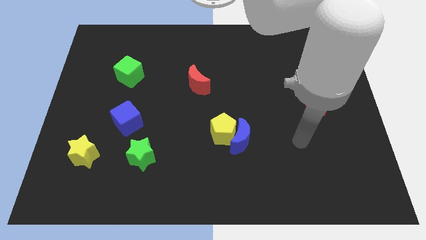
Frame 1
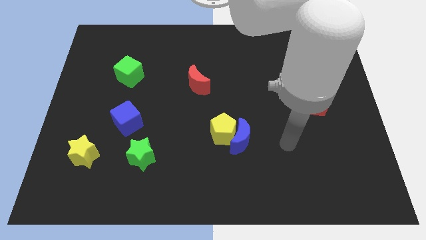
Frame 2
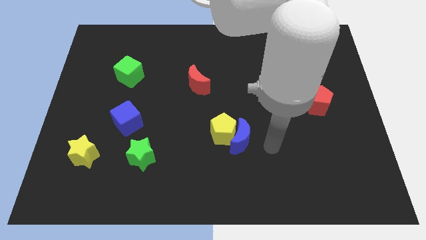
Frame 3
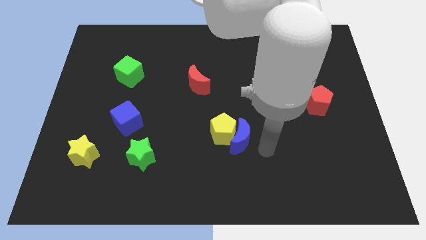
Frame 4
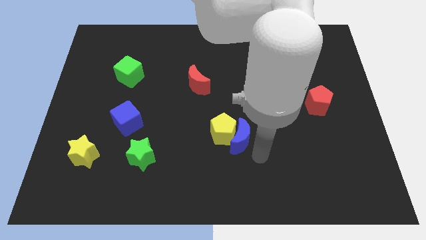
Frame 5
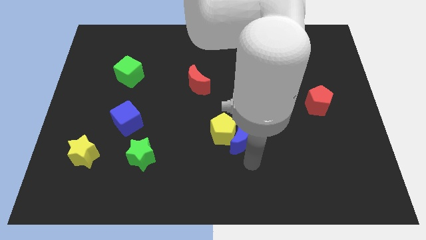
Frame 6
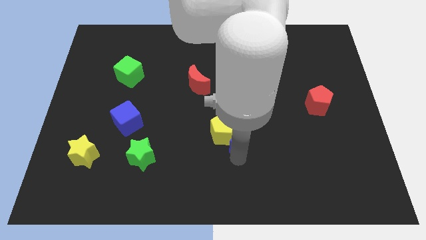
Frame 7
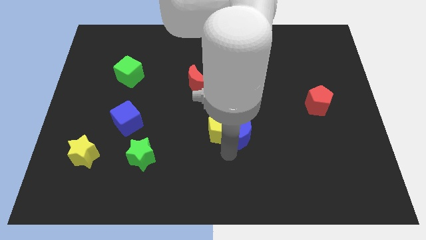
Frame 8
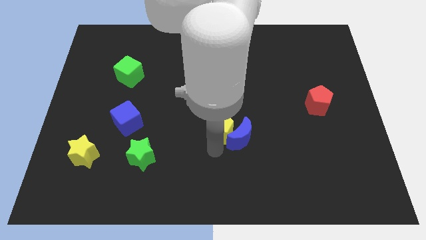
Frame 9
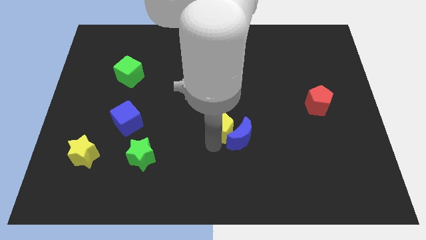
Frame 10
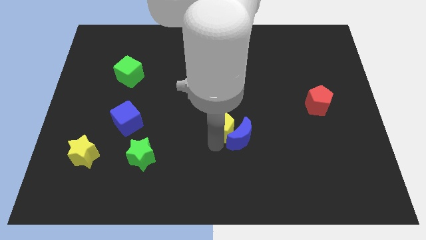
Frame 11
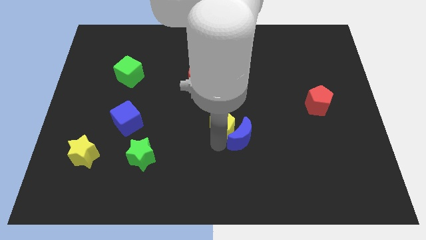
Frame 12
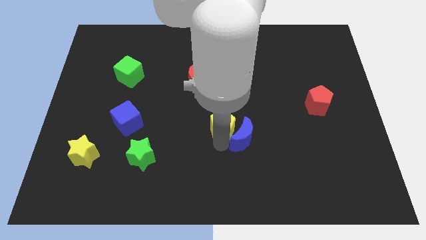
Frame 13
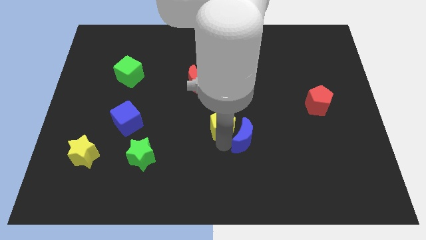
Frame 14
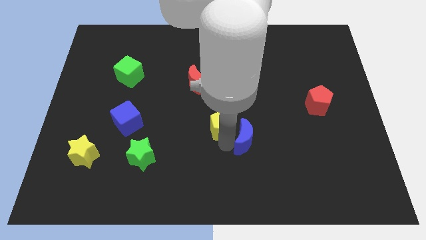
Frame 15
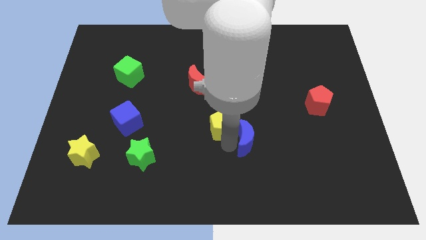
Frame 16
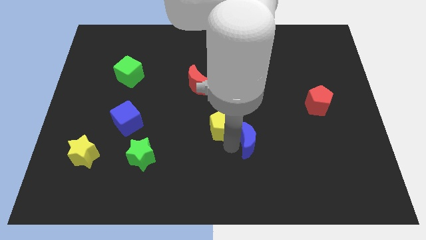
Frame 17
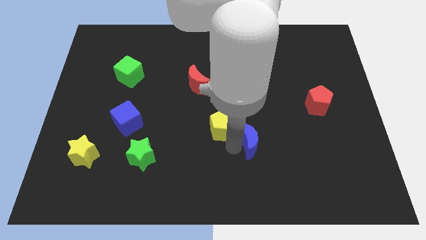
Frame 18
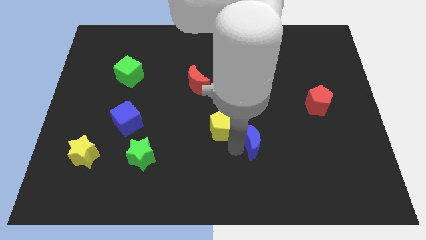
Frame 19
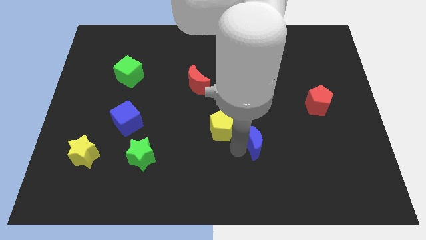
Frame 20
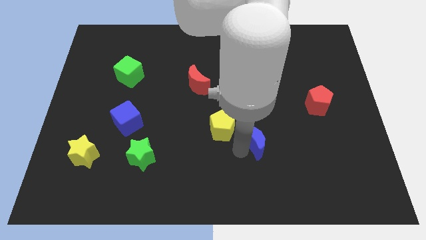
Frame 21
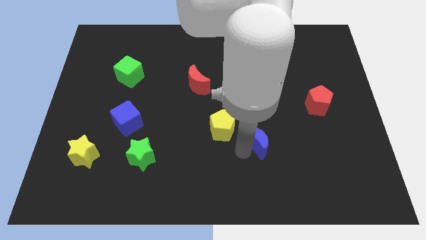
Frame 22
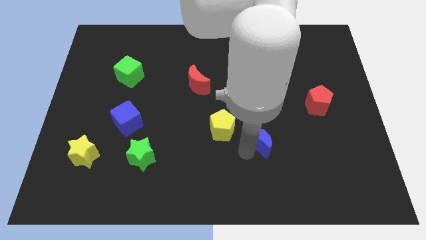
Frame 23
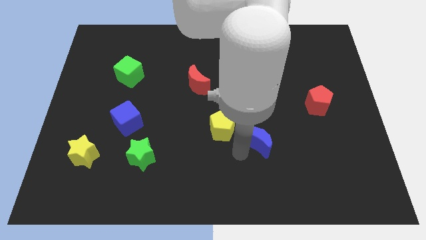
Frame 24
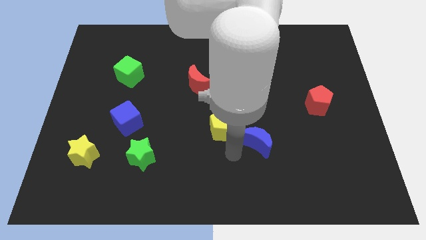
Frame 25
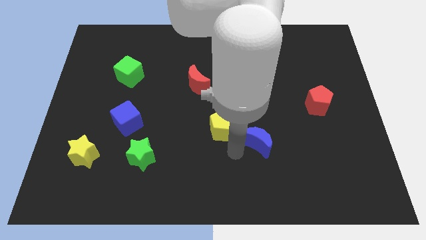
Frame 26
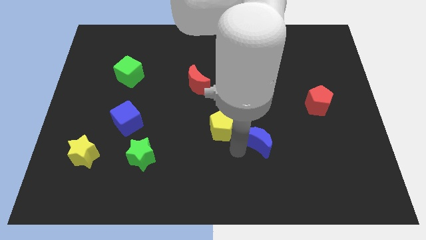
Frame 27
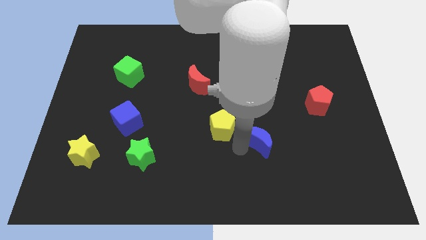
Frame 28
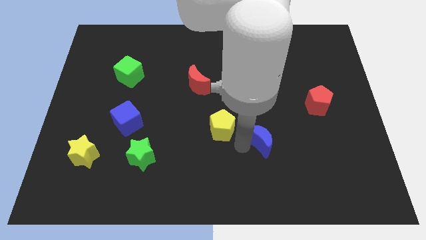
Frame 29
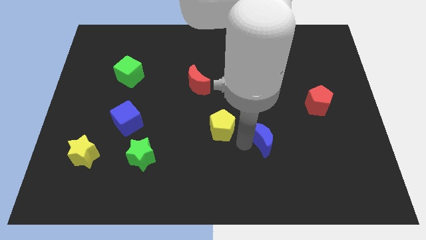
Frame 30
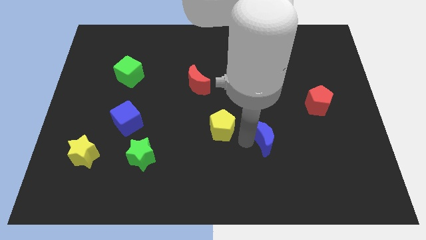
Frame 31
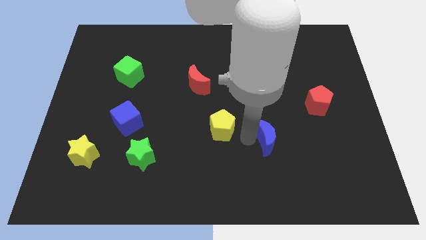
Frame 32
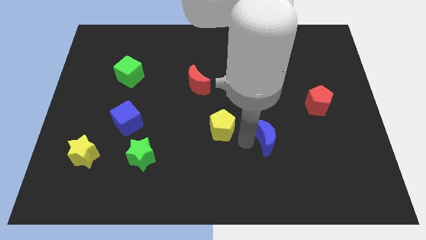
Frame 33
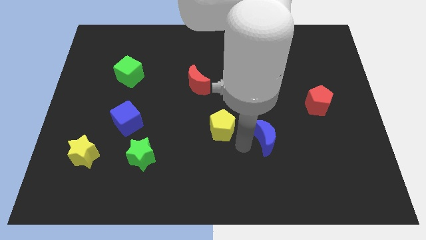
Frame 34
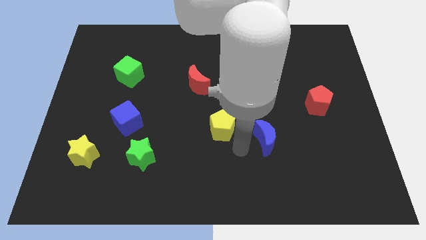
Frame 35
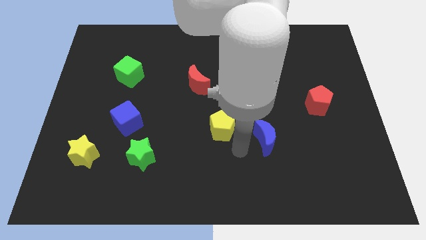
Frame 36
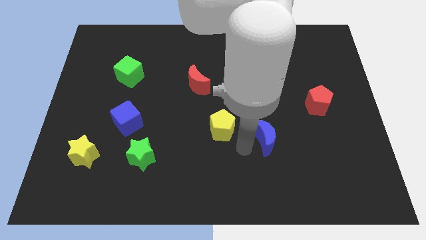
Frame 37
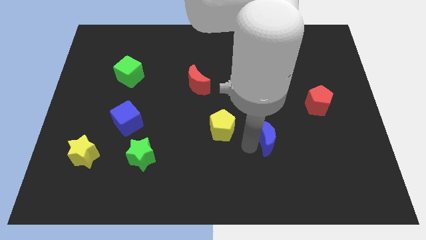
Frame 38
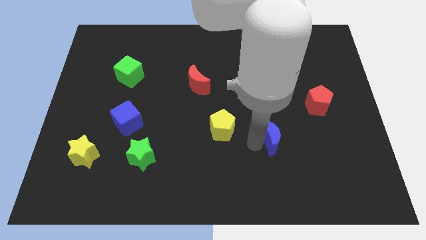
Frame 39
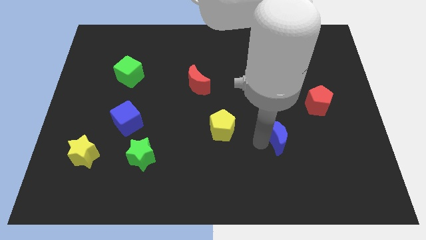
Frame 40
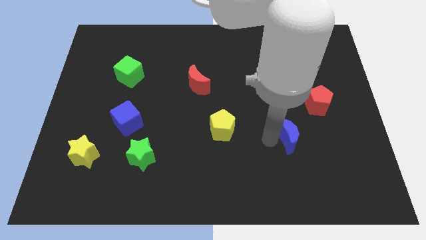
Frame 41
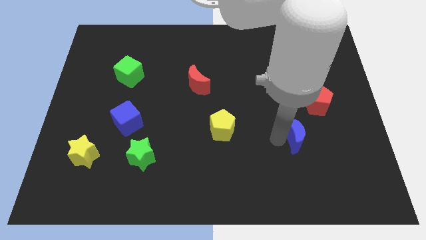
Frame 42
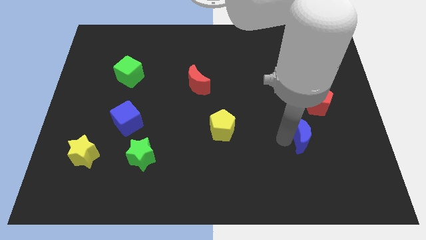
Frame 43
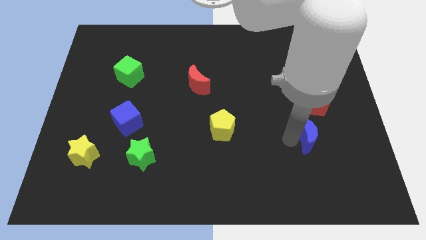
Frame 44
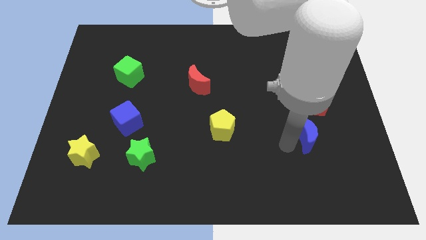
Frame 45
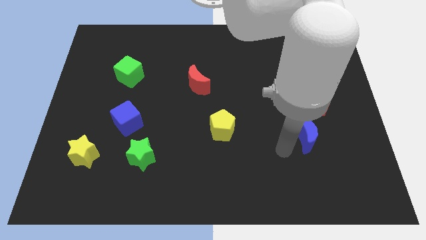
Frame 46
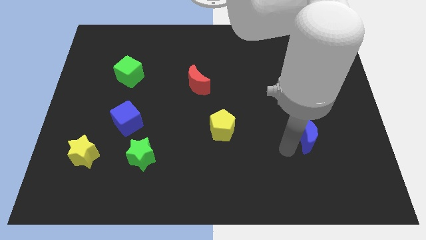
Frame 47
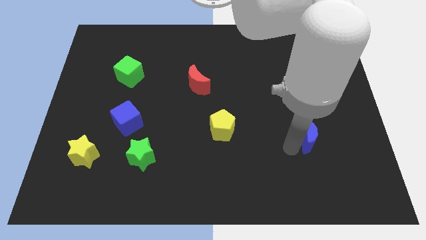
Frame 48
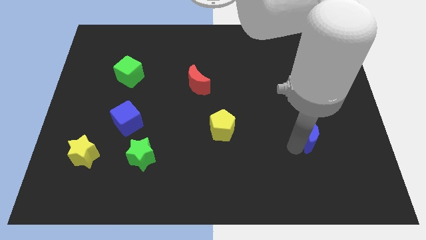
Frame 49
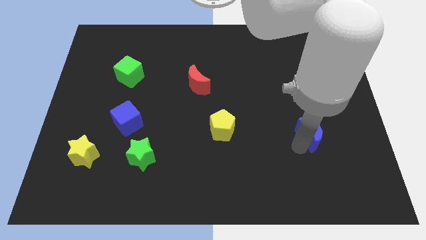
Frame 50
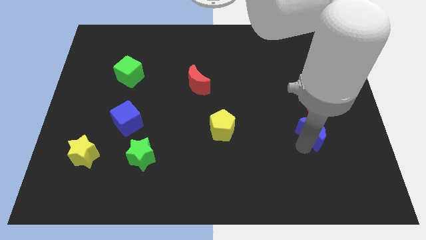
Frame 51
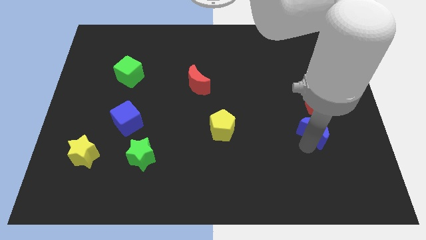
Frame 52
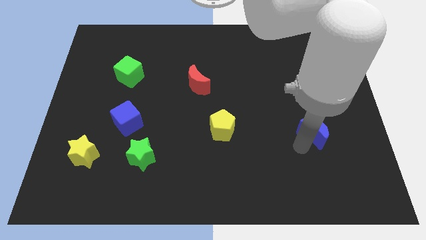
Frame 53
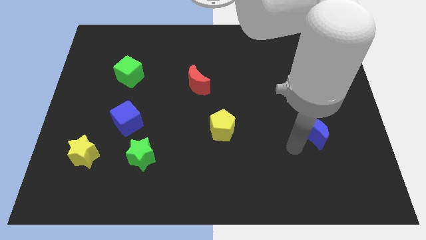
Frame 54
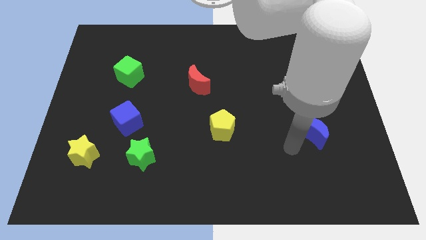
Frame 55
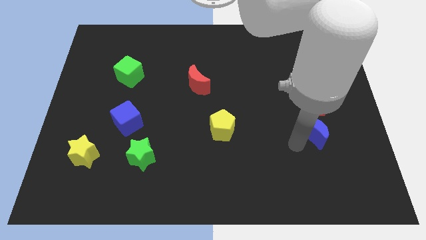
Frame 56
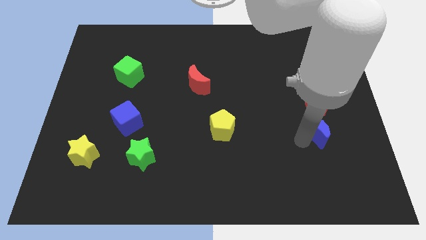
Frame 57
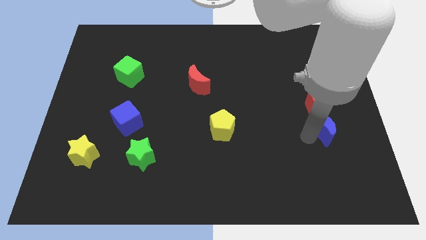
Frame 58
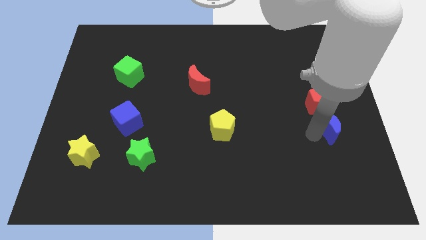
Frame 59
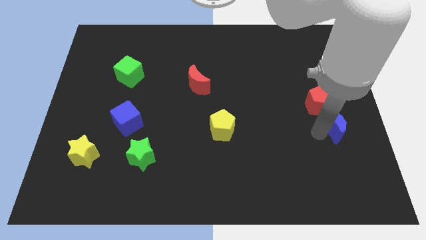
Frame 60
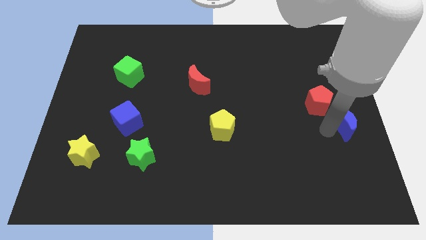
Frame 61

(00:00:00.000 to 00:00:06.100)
move the blue moon to the right side

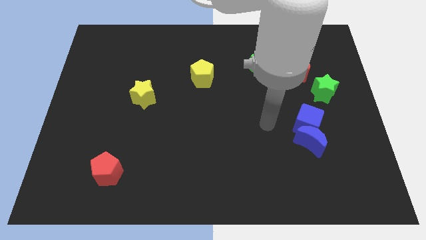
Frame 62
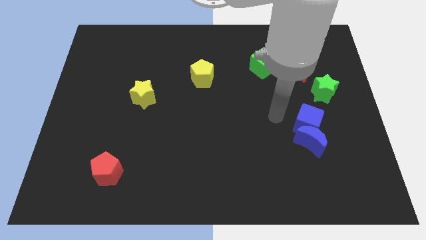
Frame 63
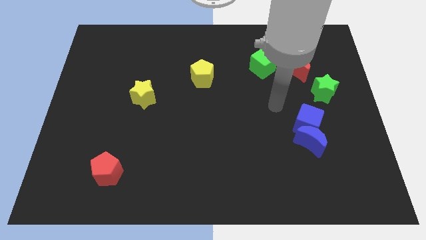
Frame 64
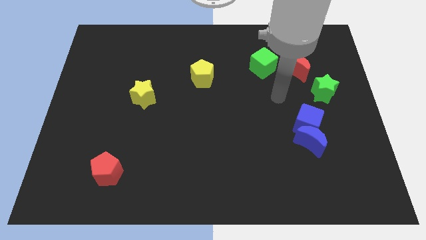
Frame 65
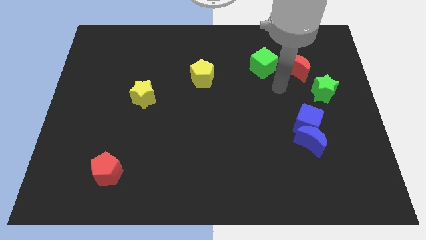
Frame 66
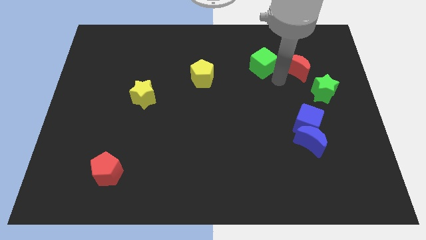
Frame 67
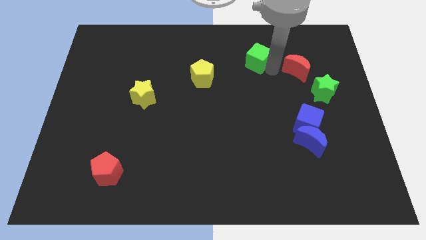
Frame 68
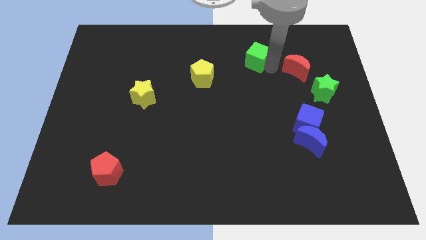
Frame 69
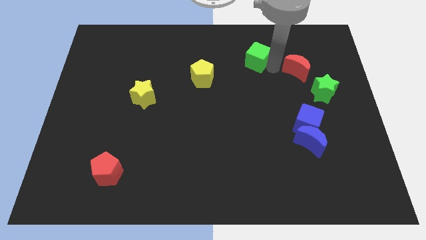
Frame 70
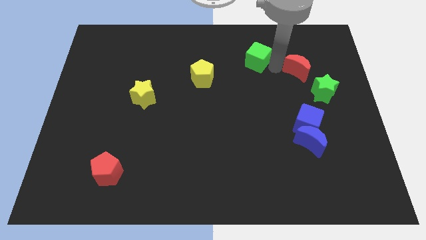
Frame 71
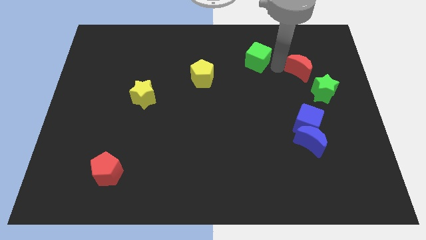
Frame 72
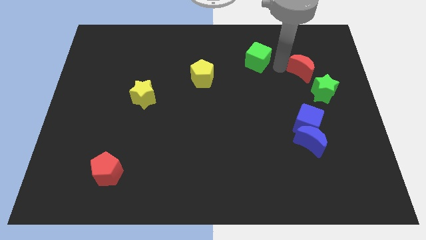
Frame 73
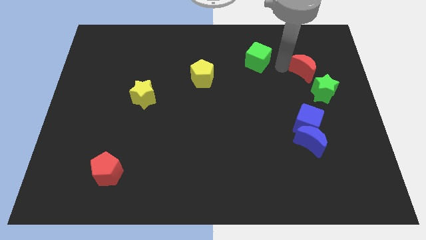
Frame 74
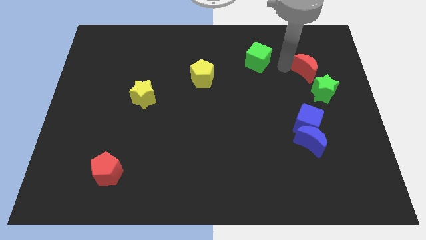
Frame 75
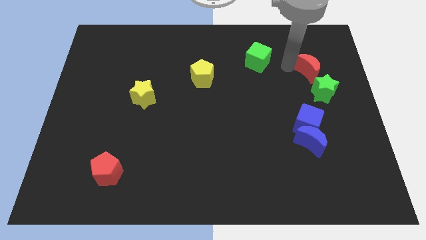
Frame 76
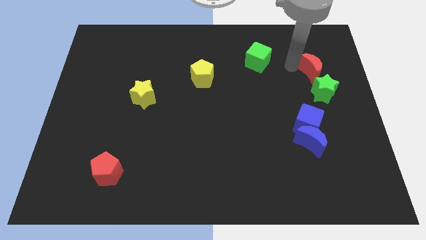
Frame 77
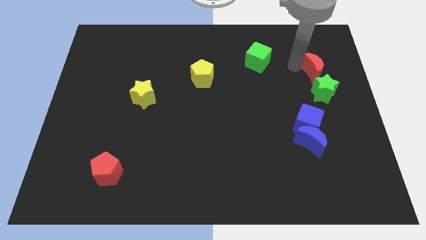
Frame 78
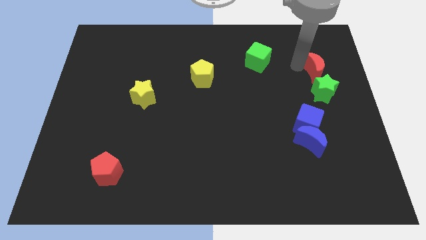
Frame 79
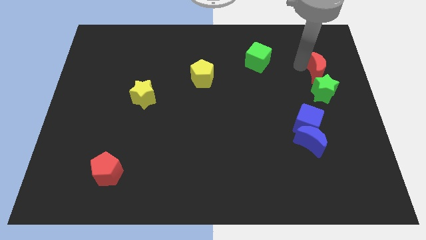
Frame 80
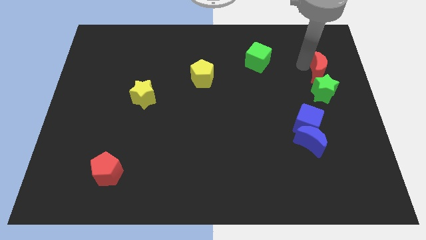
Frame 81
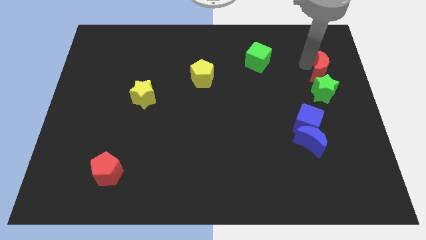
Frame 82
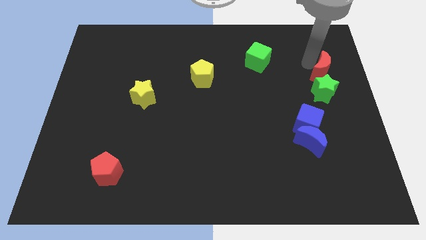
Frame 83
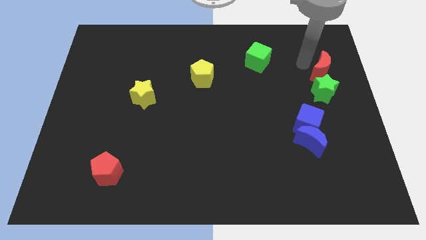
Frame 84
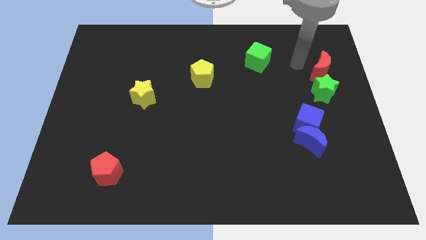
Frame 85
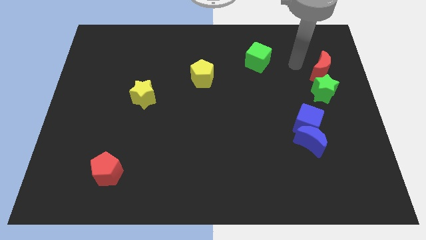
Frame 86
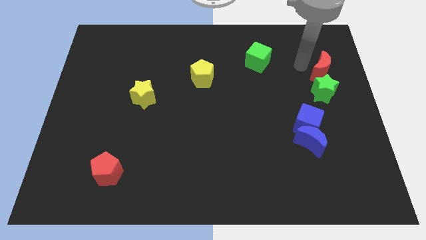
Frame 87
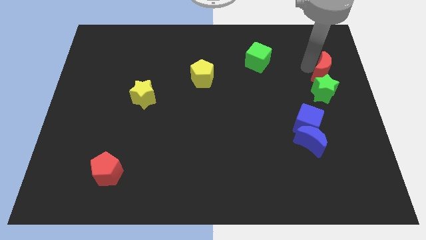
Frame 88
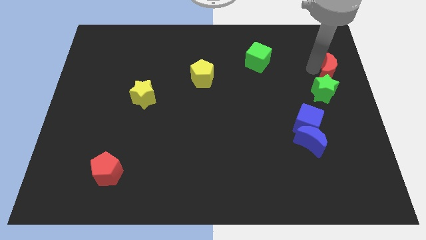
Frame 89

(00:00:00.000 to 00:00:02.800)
move the red moon to the right side of the board
